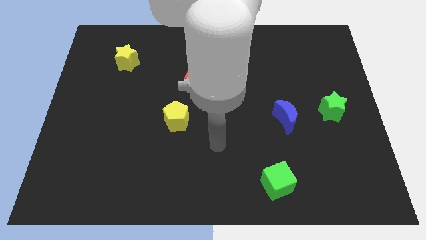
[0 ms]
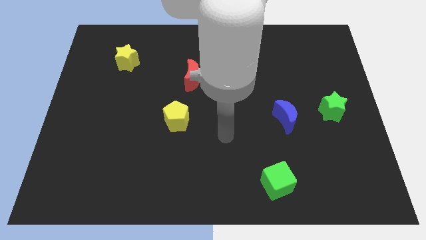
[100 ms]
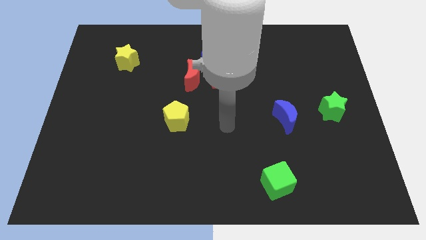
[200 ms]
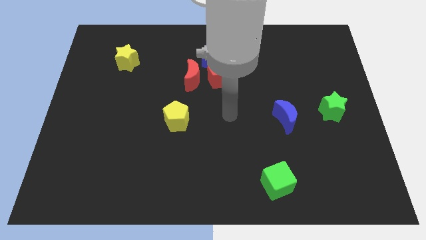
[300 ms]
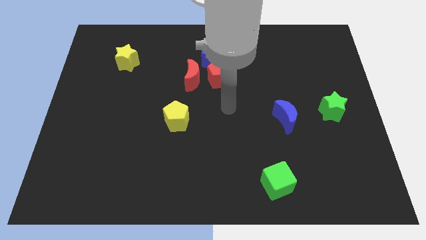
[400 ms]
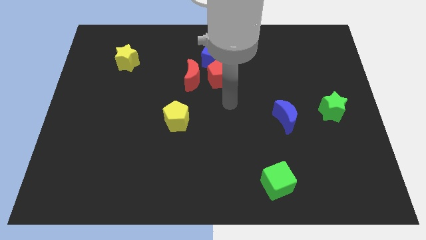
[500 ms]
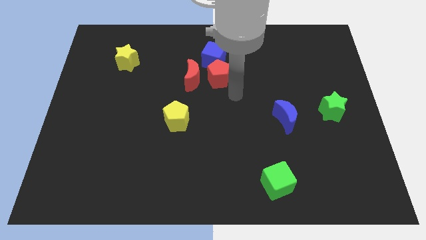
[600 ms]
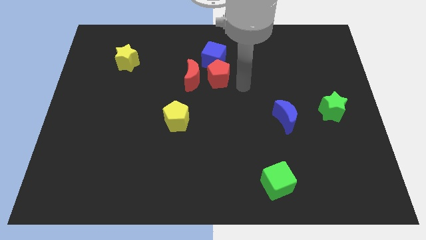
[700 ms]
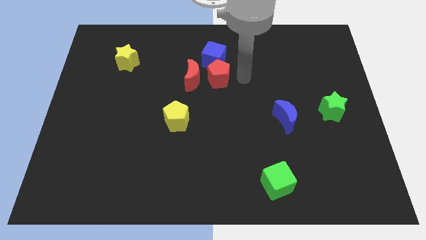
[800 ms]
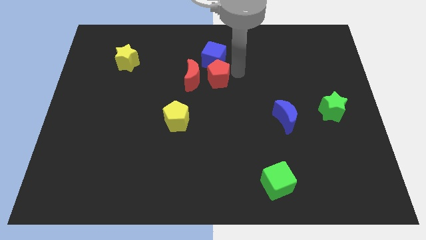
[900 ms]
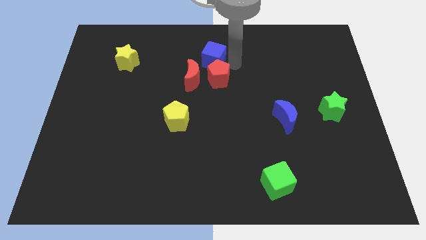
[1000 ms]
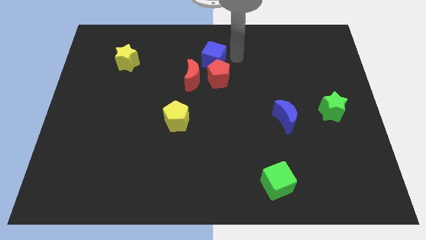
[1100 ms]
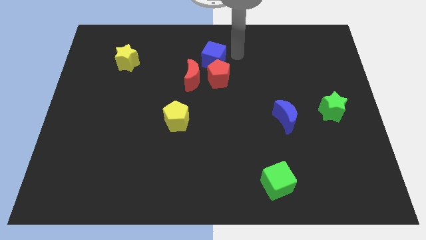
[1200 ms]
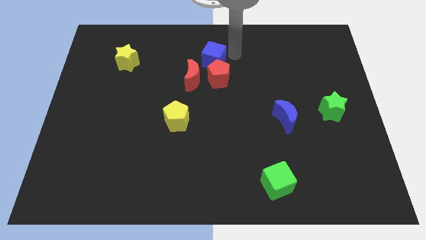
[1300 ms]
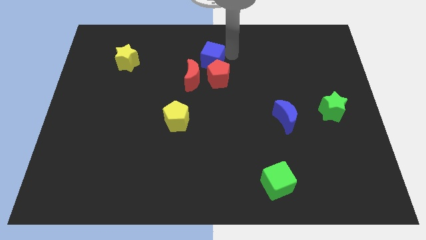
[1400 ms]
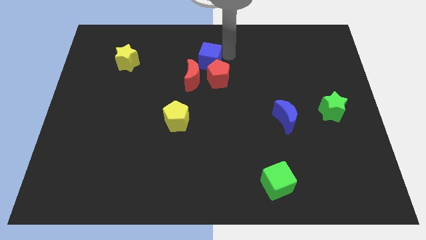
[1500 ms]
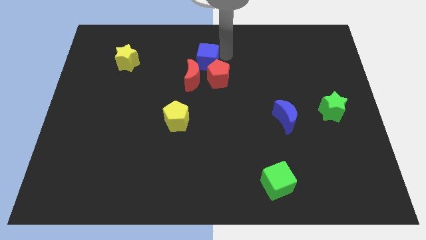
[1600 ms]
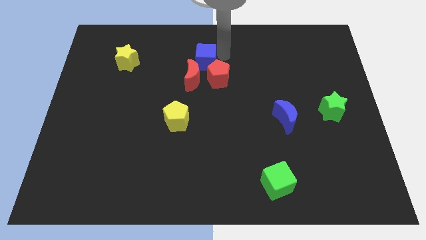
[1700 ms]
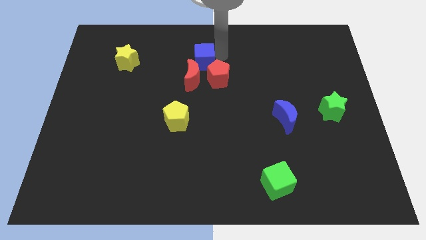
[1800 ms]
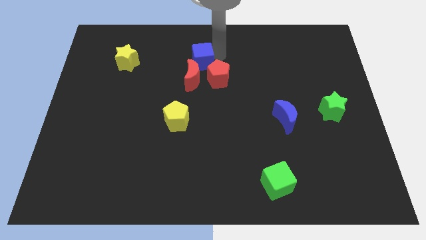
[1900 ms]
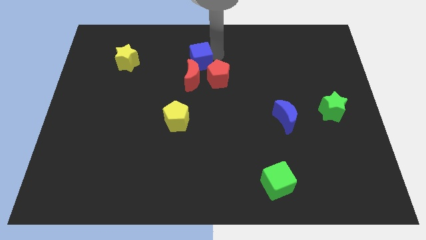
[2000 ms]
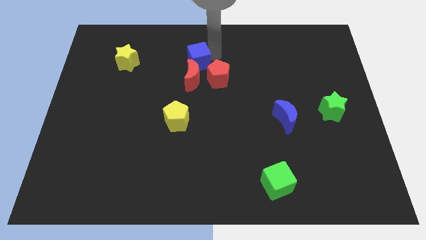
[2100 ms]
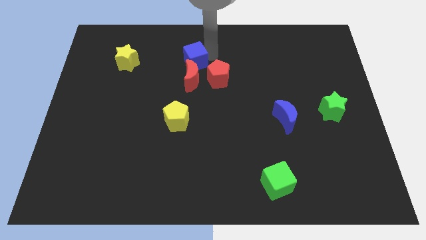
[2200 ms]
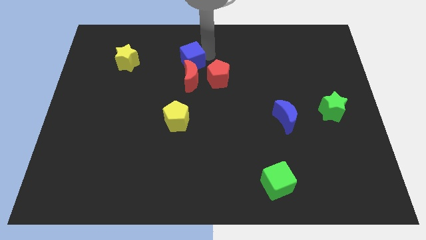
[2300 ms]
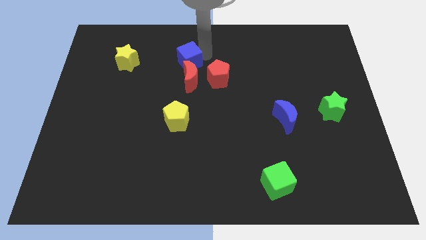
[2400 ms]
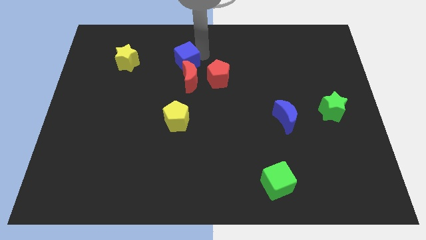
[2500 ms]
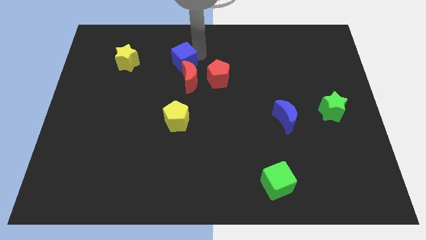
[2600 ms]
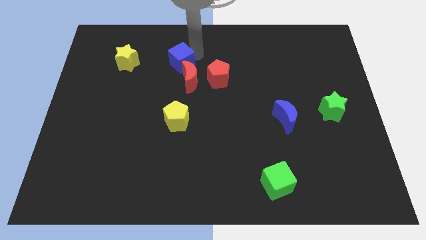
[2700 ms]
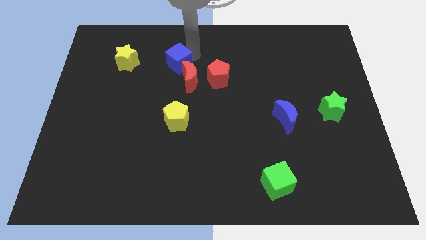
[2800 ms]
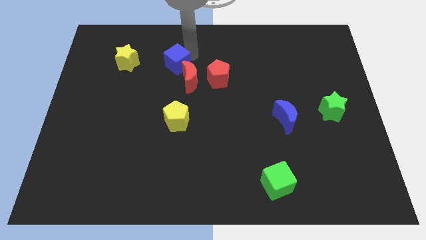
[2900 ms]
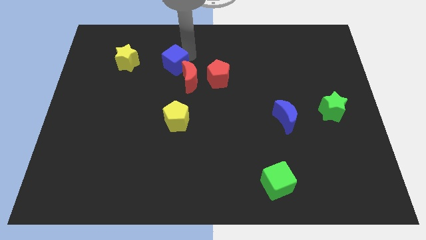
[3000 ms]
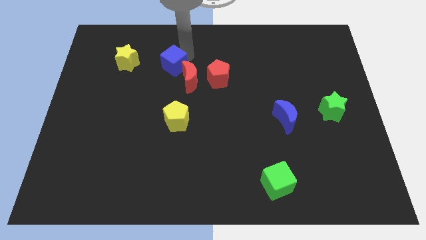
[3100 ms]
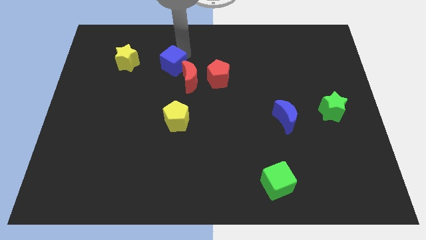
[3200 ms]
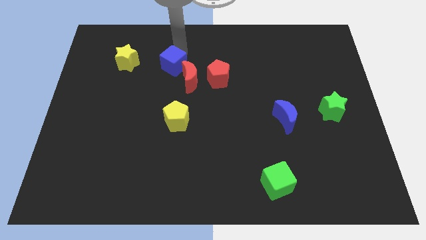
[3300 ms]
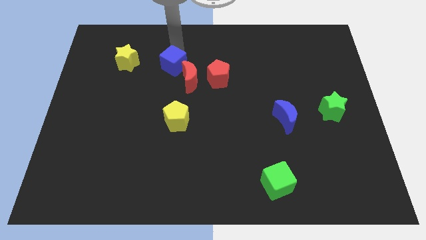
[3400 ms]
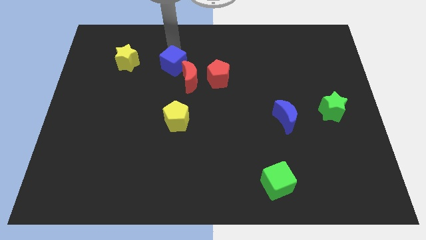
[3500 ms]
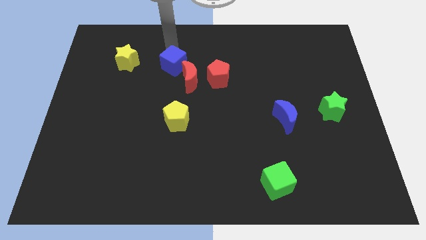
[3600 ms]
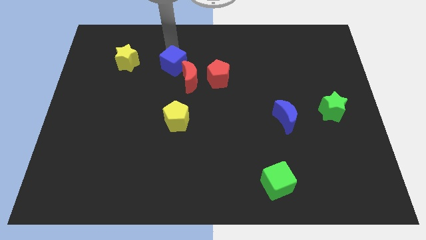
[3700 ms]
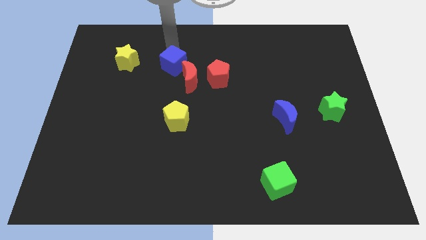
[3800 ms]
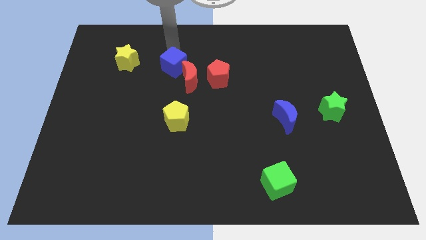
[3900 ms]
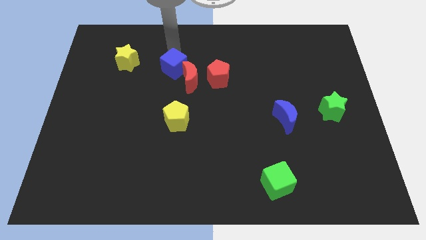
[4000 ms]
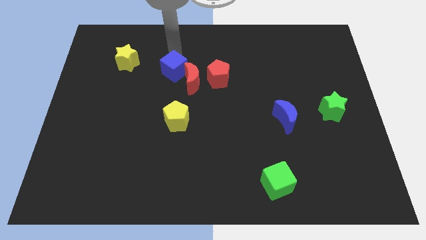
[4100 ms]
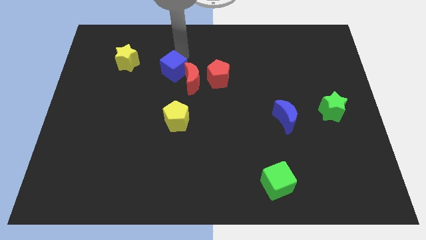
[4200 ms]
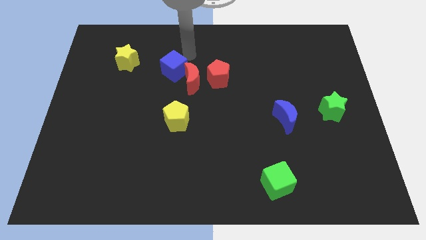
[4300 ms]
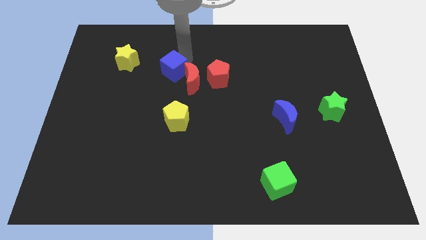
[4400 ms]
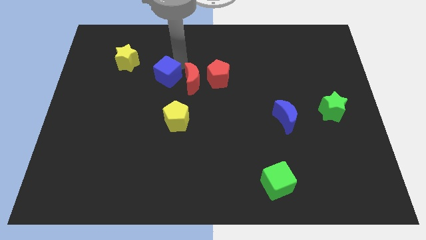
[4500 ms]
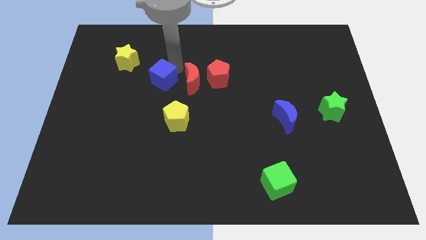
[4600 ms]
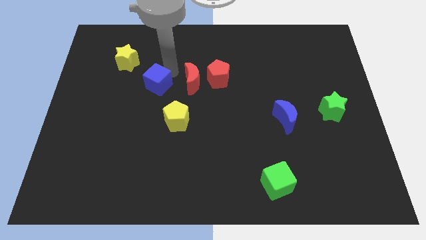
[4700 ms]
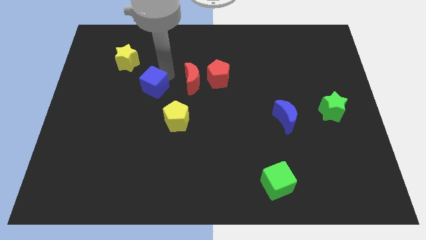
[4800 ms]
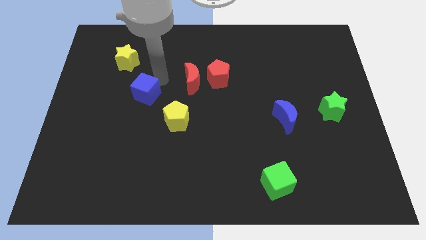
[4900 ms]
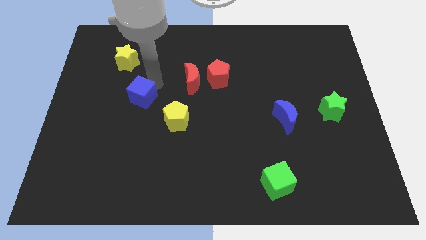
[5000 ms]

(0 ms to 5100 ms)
move the blue cube downwards and to the left diagonally

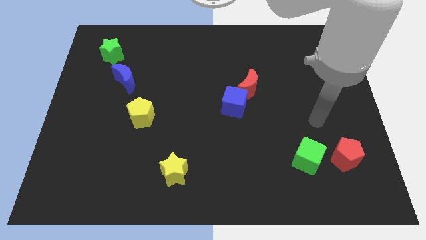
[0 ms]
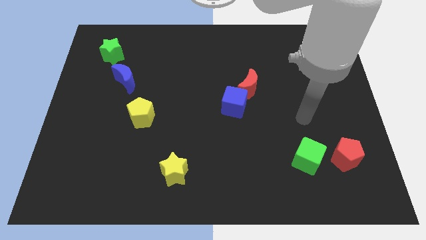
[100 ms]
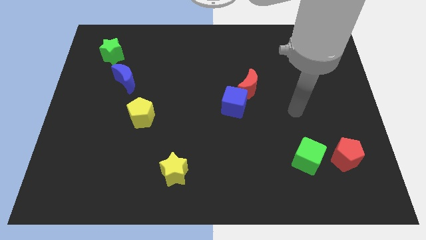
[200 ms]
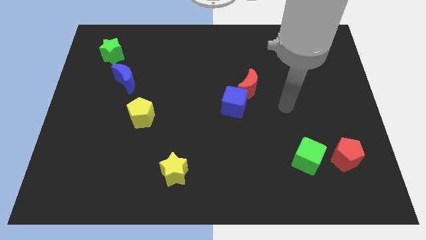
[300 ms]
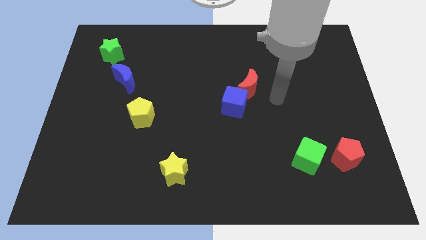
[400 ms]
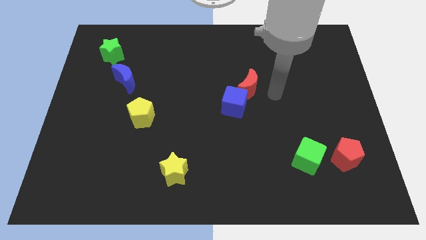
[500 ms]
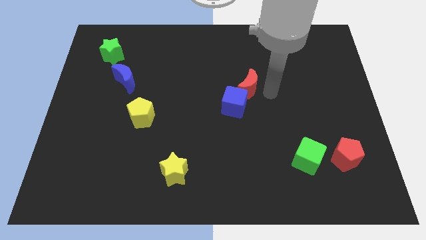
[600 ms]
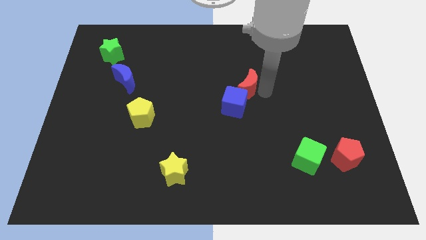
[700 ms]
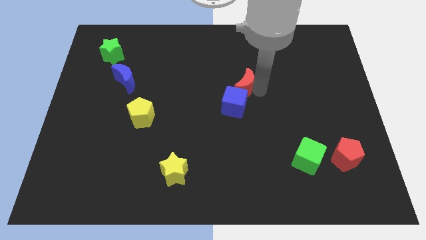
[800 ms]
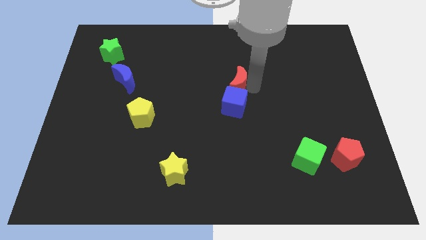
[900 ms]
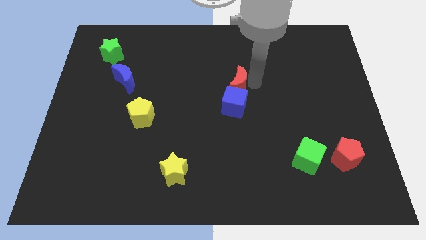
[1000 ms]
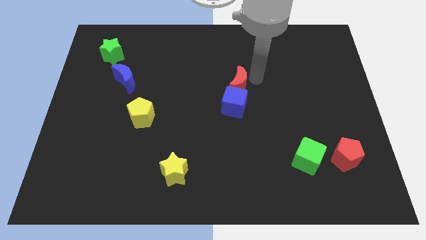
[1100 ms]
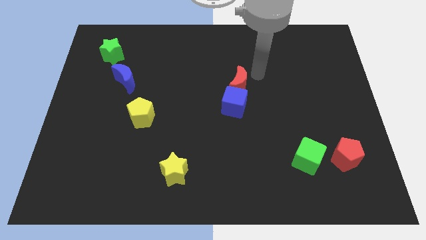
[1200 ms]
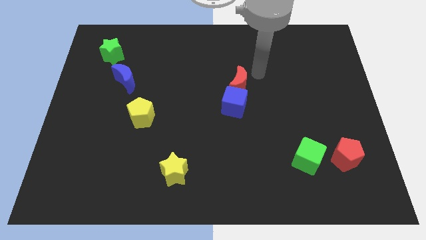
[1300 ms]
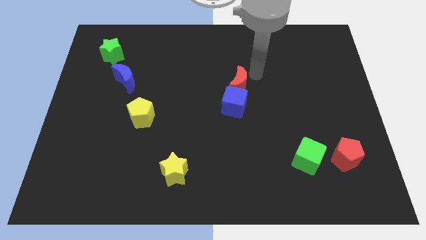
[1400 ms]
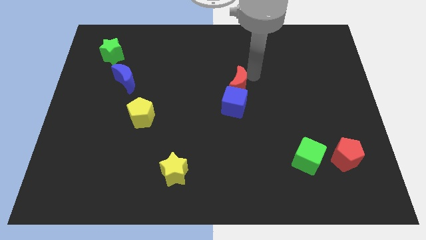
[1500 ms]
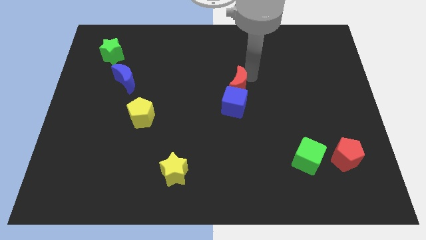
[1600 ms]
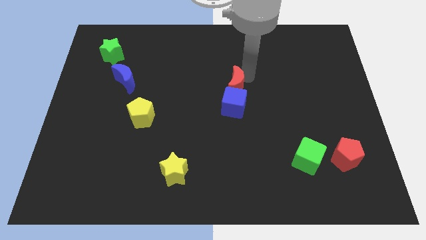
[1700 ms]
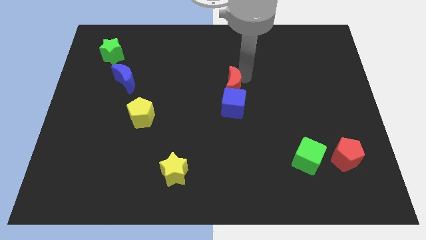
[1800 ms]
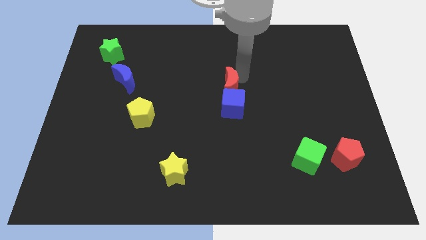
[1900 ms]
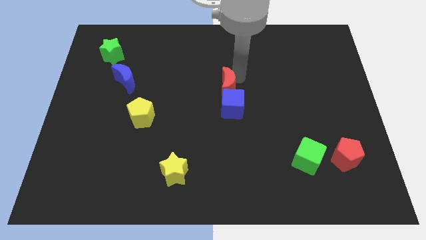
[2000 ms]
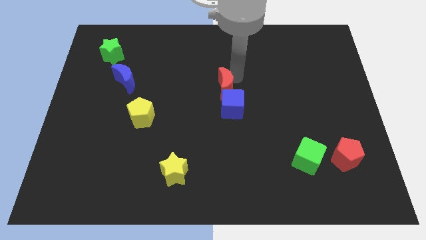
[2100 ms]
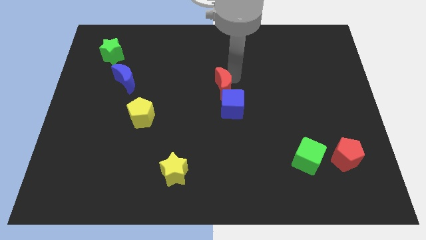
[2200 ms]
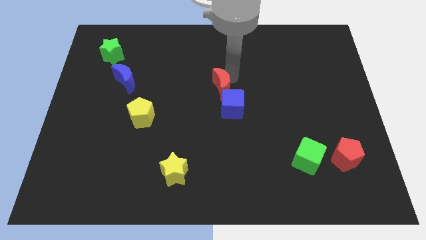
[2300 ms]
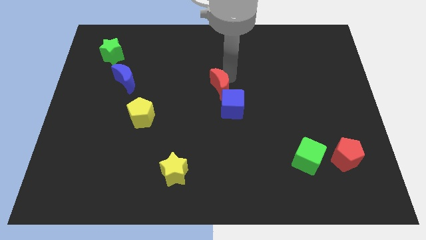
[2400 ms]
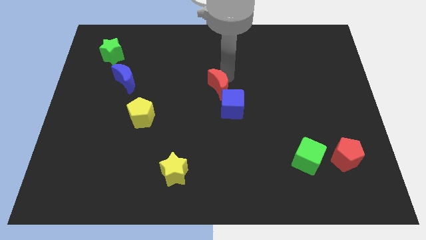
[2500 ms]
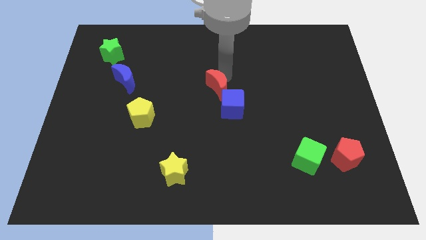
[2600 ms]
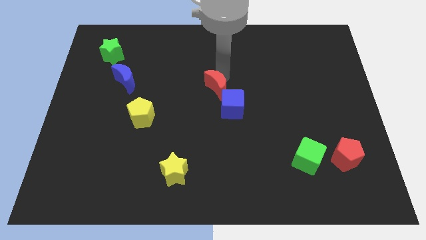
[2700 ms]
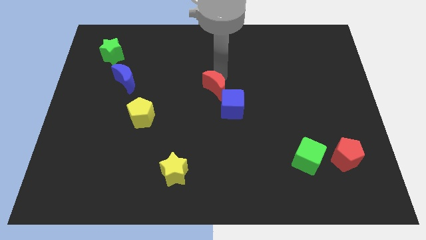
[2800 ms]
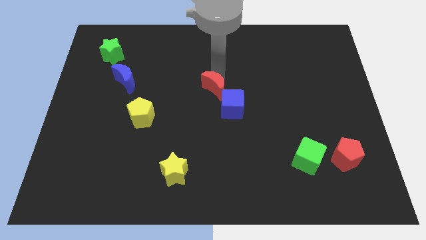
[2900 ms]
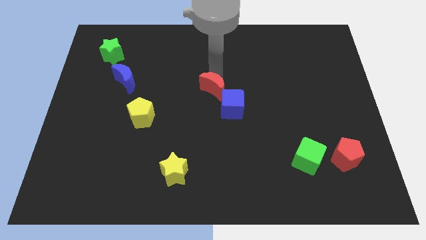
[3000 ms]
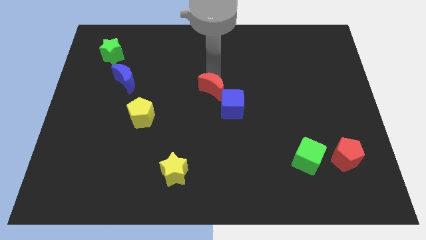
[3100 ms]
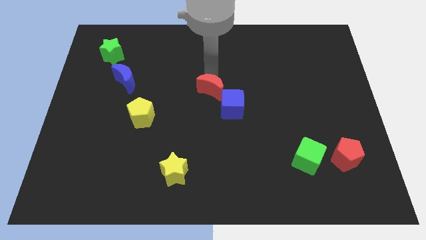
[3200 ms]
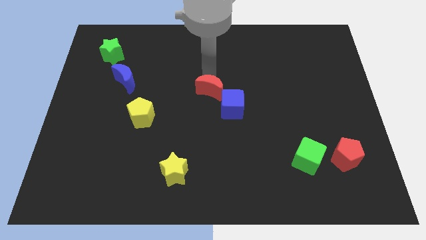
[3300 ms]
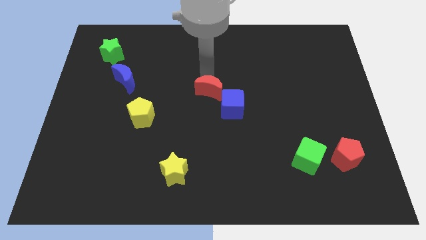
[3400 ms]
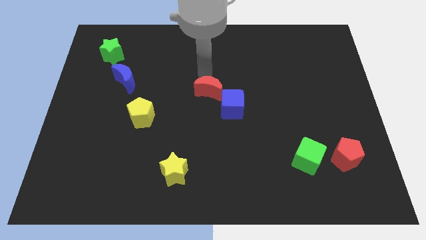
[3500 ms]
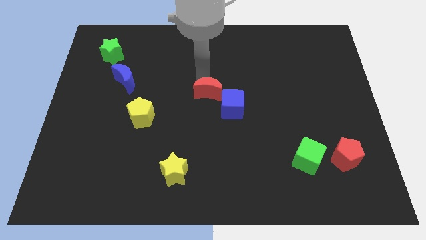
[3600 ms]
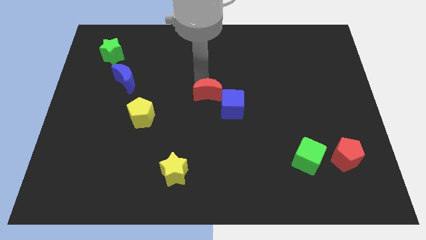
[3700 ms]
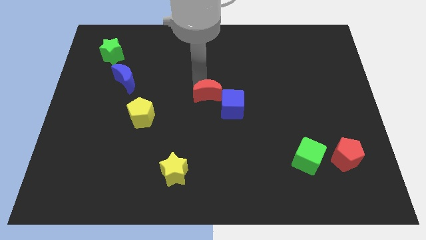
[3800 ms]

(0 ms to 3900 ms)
slide the red moon diagonally down and left slightly
